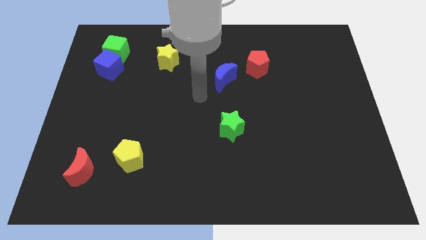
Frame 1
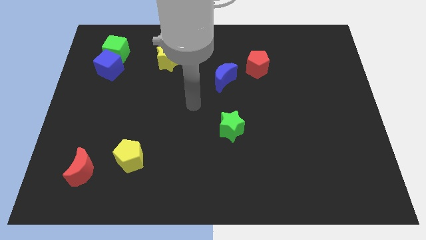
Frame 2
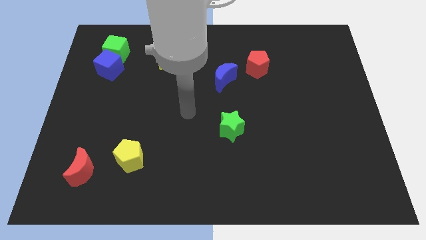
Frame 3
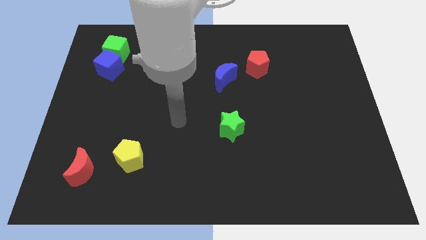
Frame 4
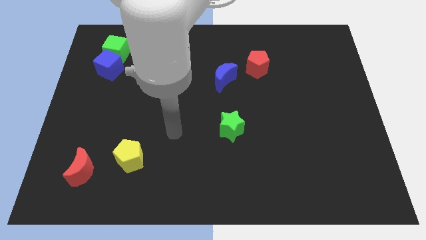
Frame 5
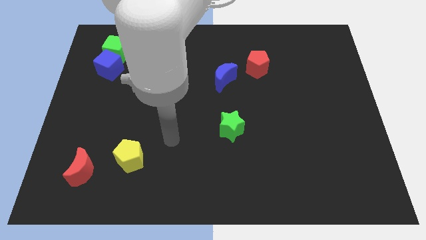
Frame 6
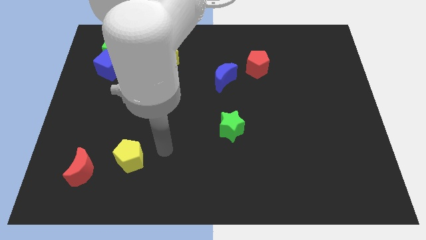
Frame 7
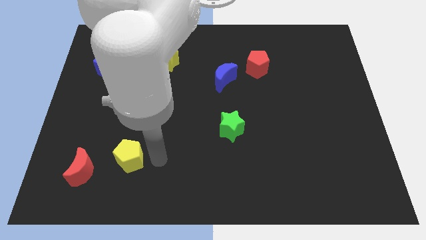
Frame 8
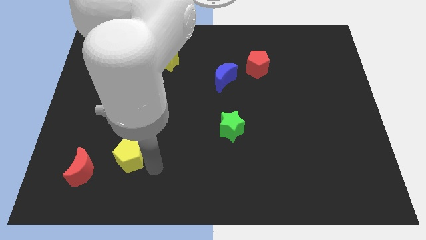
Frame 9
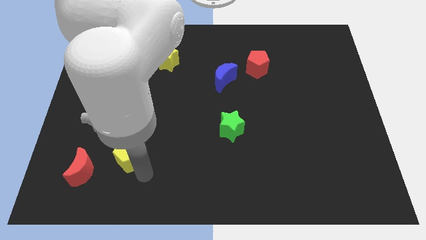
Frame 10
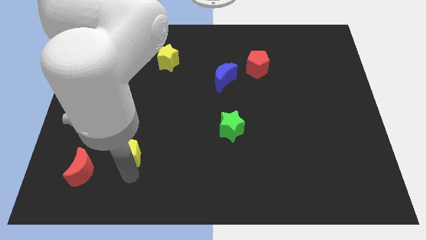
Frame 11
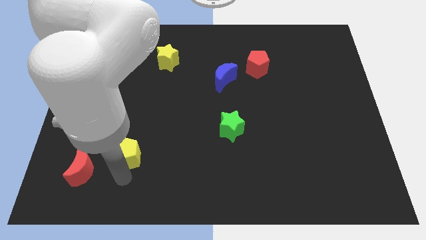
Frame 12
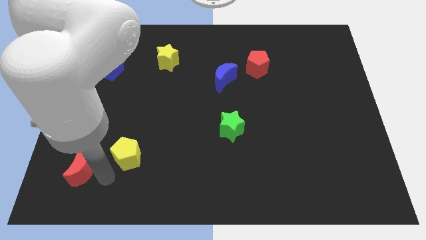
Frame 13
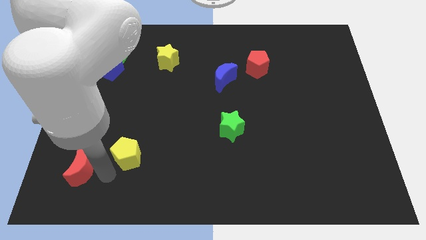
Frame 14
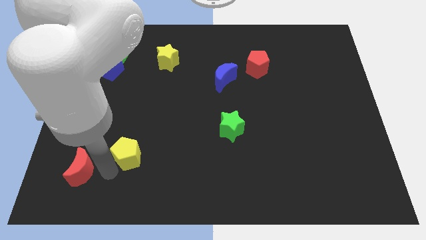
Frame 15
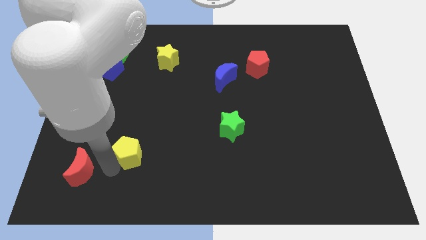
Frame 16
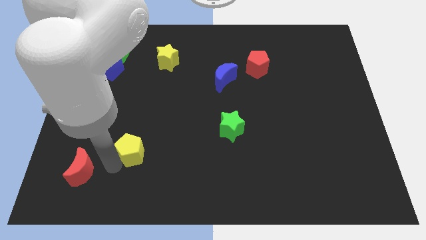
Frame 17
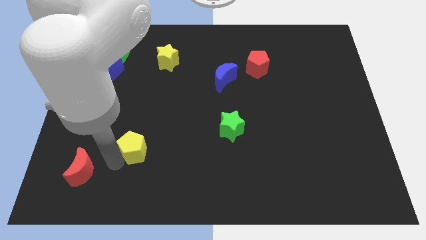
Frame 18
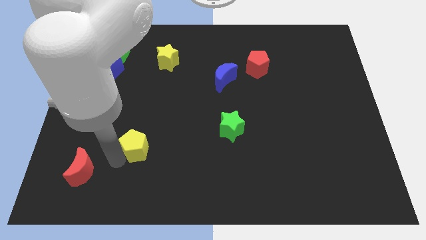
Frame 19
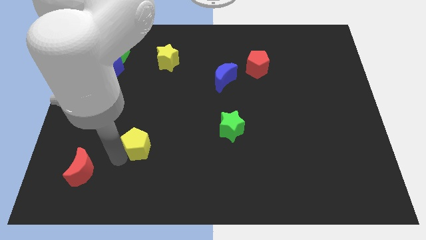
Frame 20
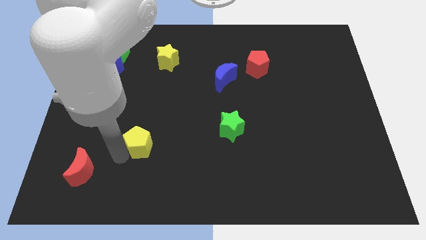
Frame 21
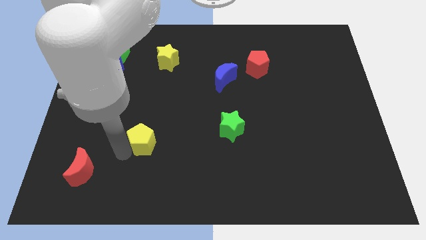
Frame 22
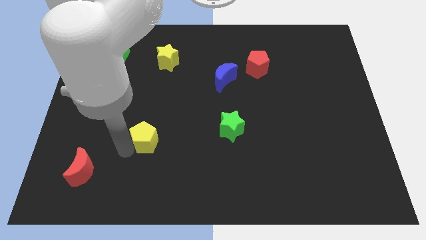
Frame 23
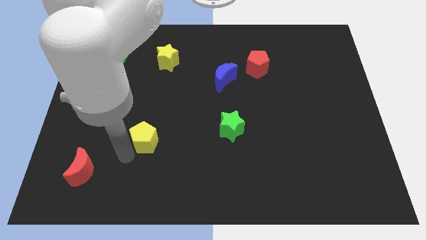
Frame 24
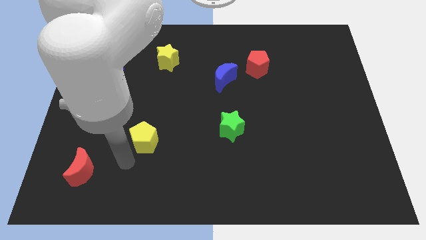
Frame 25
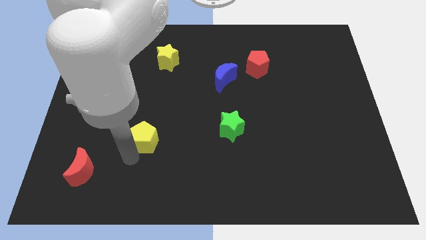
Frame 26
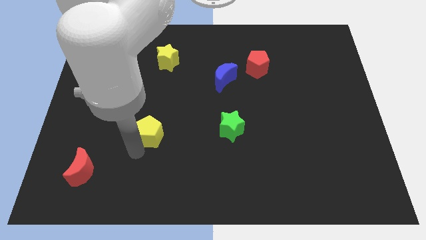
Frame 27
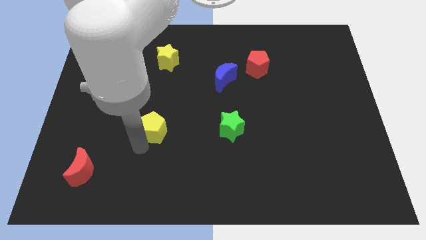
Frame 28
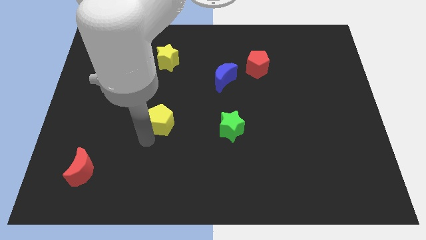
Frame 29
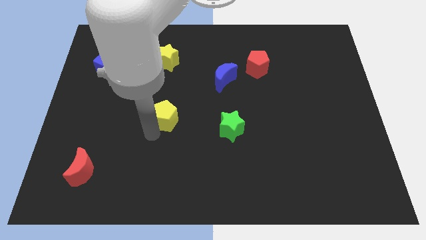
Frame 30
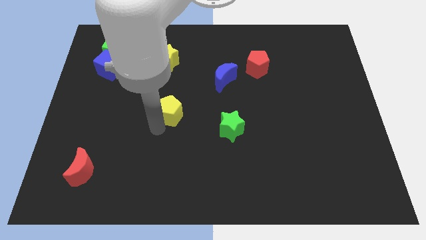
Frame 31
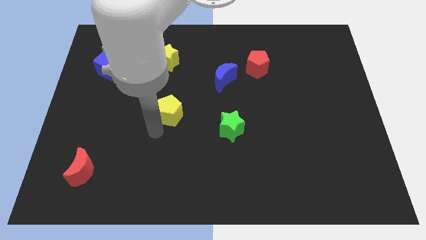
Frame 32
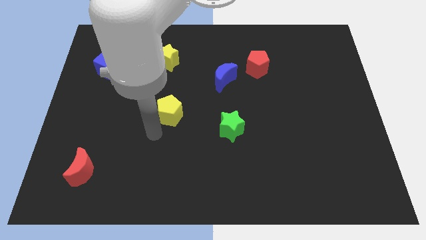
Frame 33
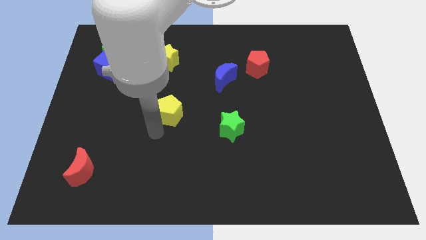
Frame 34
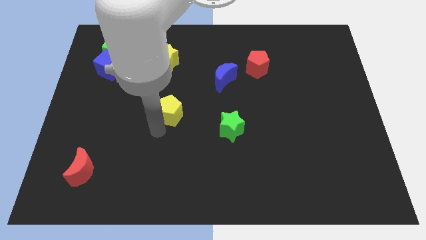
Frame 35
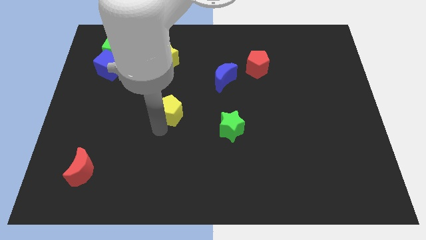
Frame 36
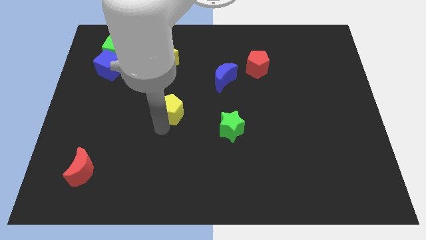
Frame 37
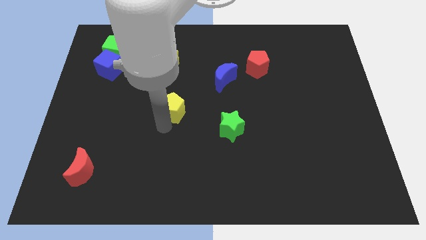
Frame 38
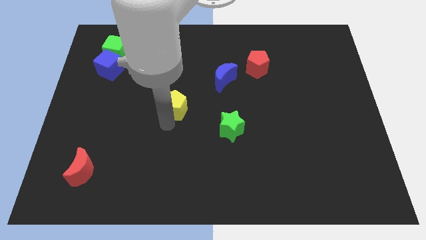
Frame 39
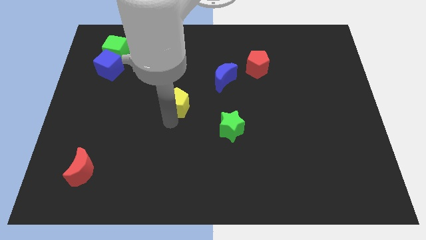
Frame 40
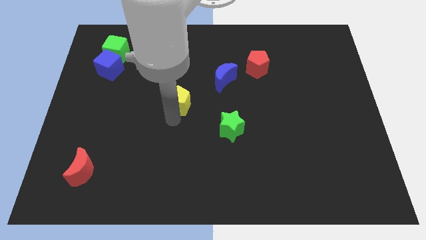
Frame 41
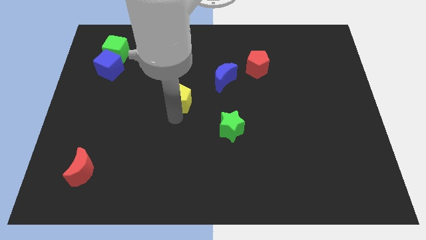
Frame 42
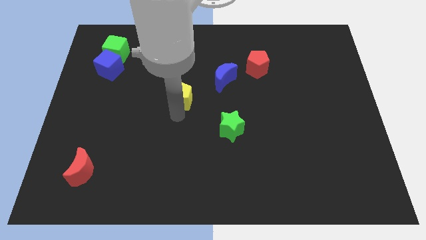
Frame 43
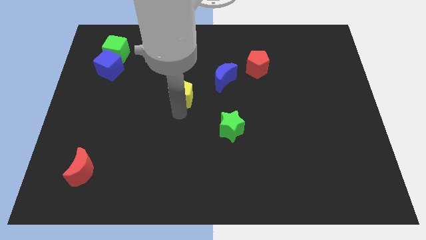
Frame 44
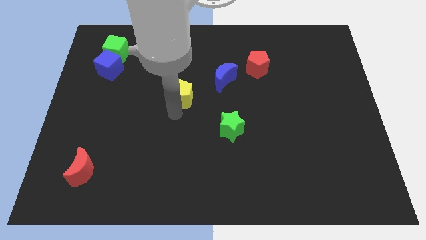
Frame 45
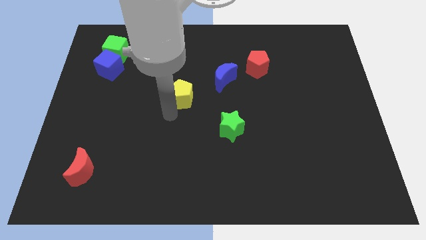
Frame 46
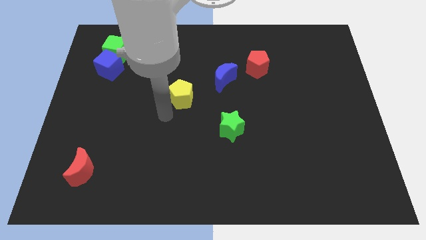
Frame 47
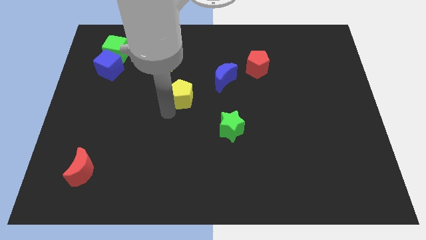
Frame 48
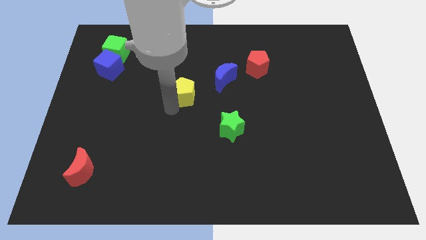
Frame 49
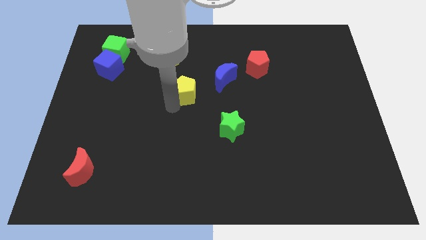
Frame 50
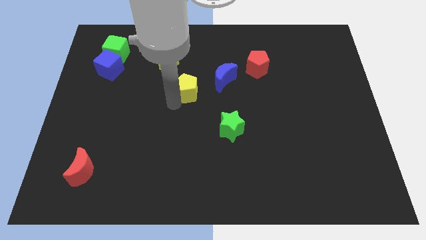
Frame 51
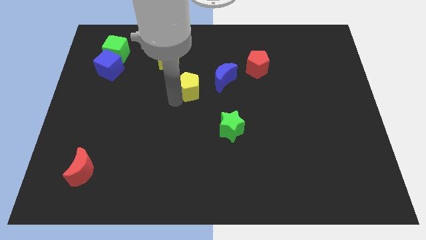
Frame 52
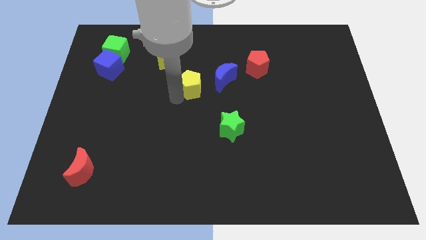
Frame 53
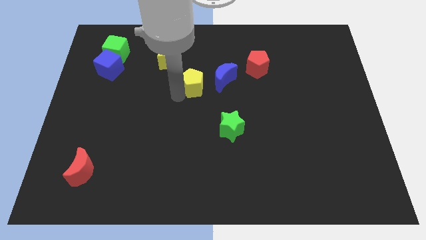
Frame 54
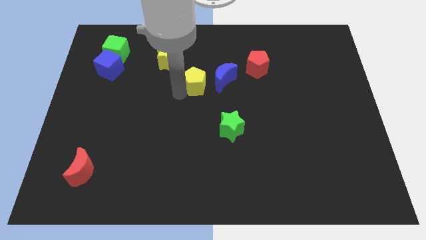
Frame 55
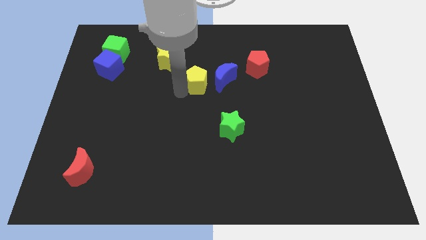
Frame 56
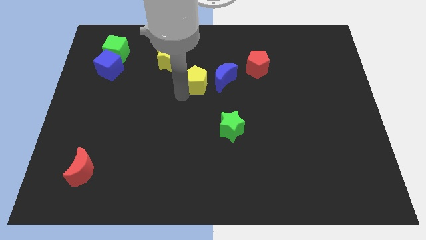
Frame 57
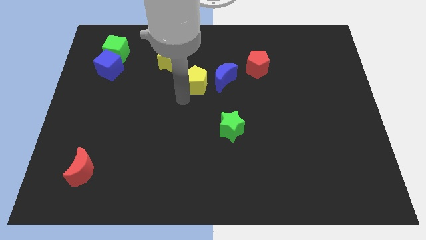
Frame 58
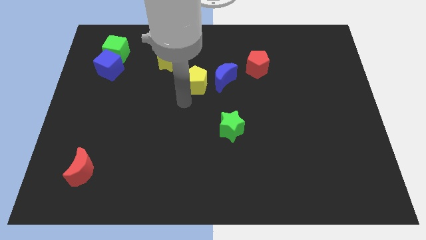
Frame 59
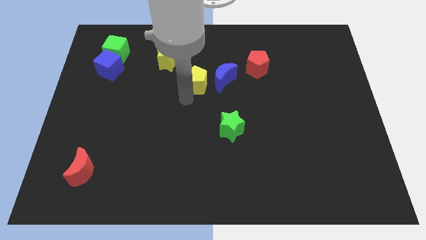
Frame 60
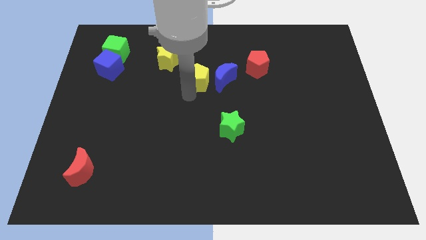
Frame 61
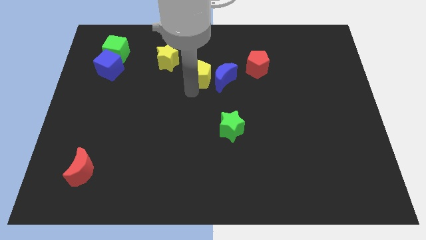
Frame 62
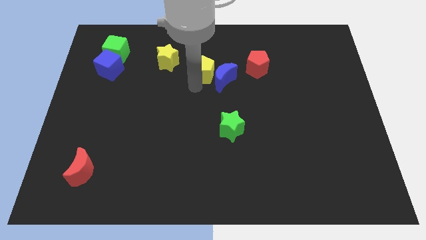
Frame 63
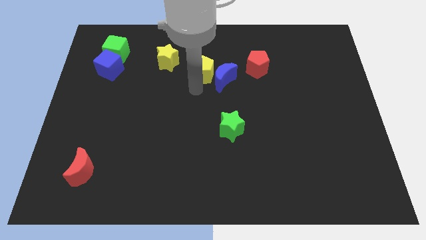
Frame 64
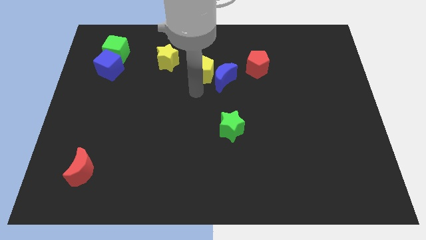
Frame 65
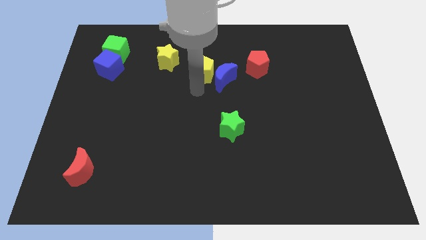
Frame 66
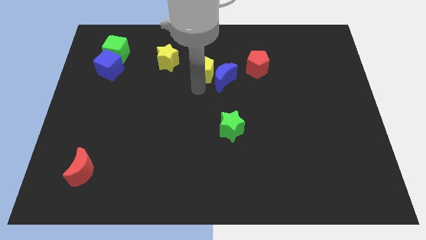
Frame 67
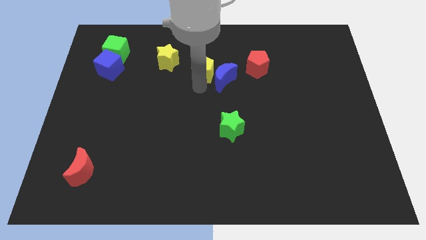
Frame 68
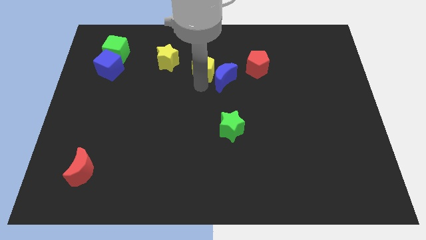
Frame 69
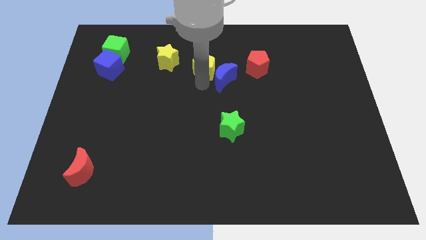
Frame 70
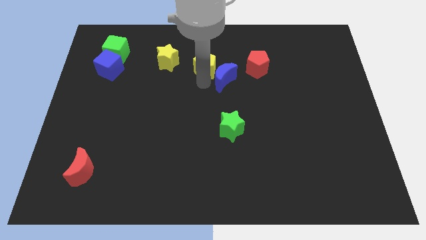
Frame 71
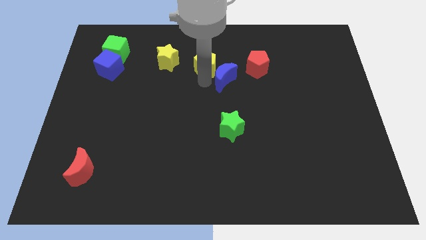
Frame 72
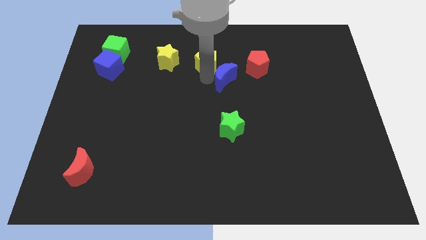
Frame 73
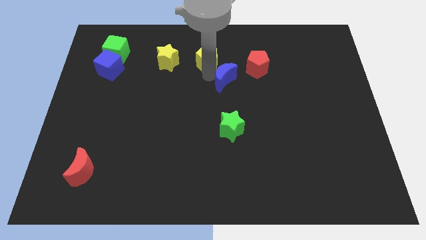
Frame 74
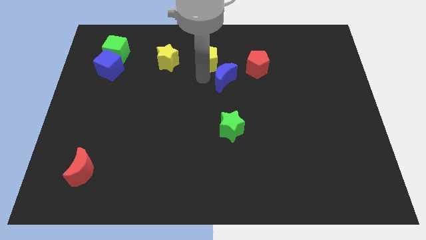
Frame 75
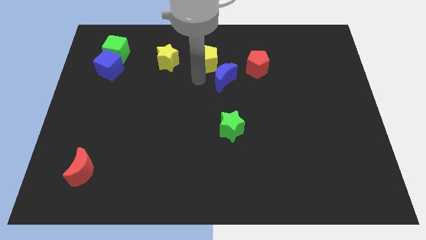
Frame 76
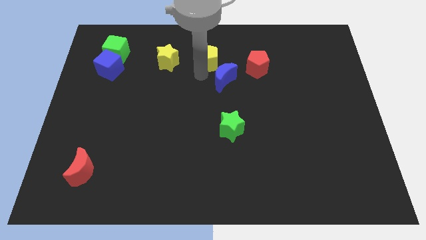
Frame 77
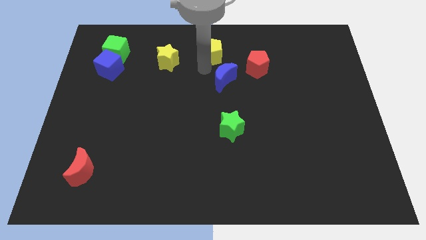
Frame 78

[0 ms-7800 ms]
push the yellow pentagon to the towards your base
